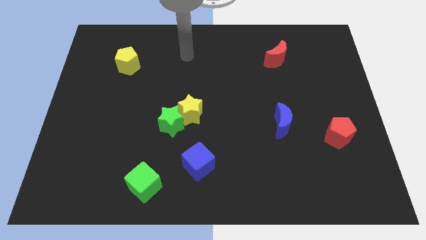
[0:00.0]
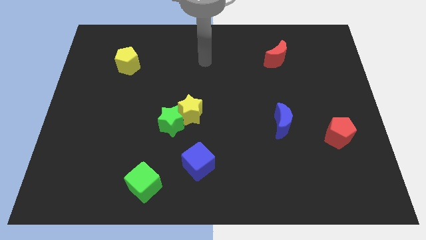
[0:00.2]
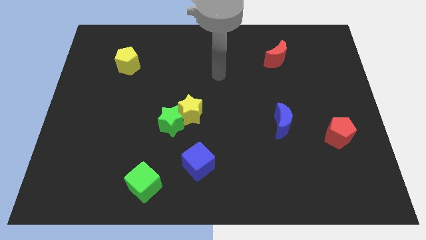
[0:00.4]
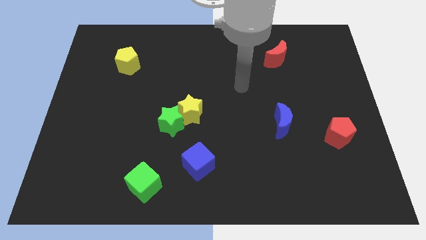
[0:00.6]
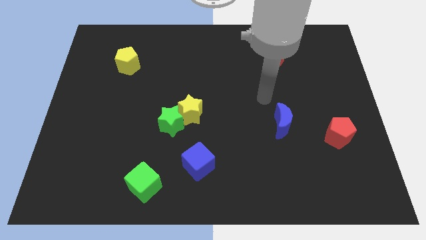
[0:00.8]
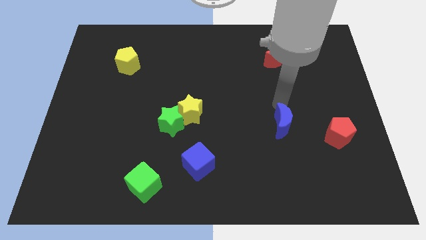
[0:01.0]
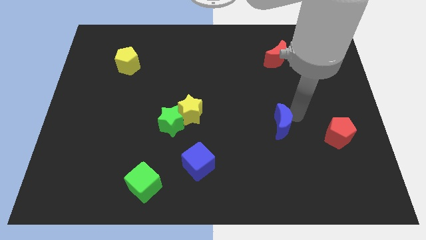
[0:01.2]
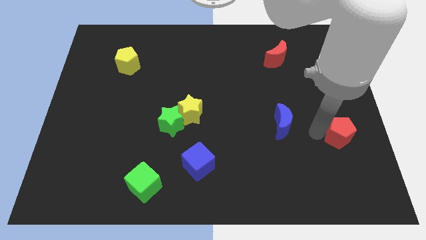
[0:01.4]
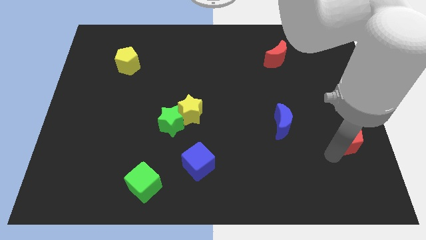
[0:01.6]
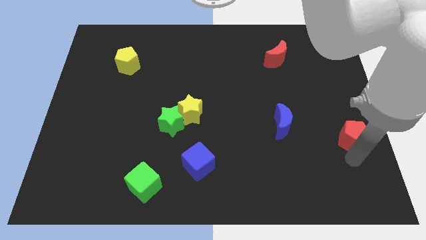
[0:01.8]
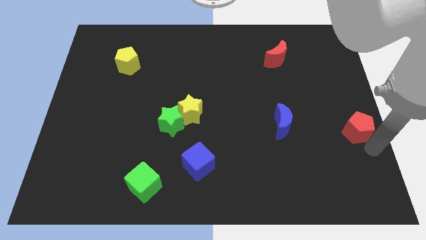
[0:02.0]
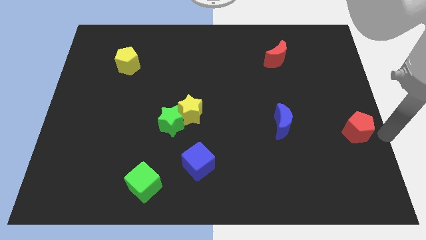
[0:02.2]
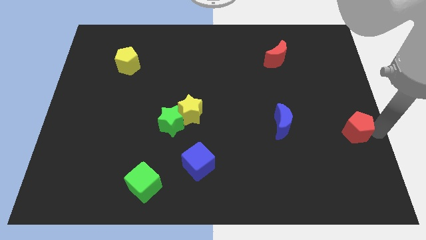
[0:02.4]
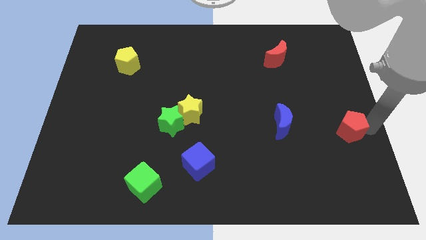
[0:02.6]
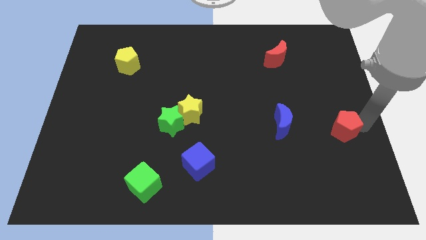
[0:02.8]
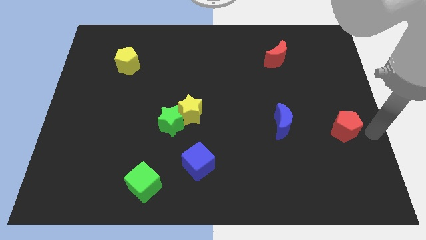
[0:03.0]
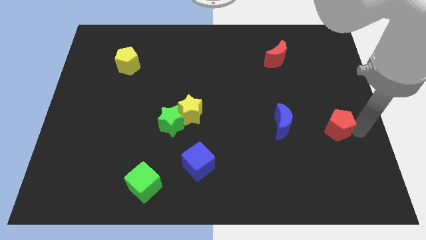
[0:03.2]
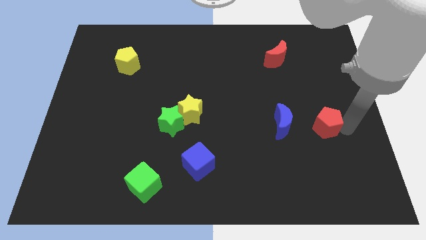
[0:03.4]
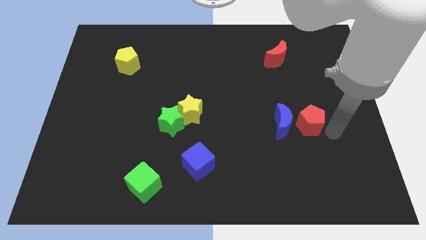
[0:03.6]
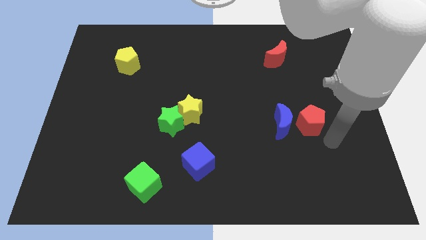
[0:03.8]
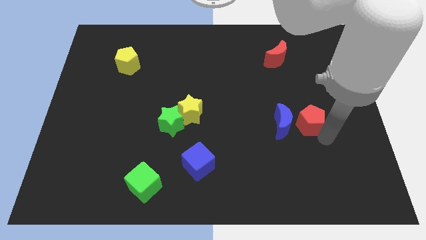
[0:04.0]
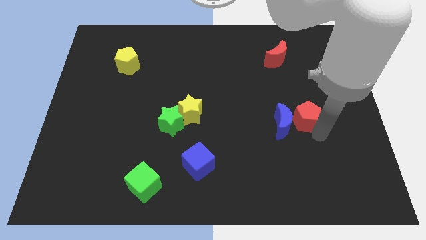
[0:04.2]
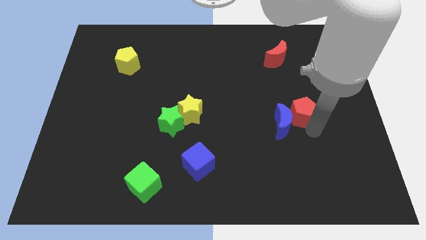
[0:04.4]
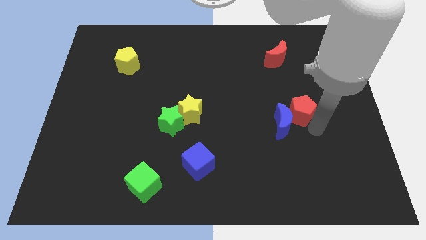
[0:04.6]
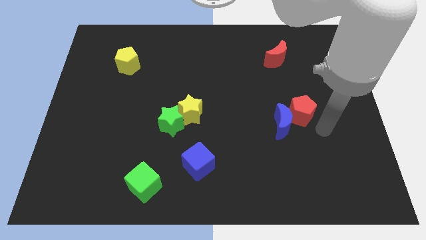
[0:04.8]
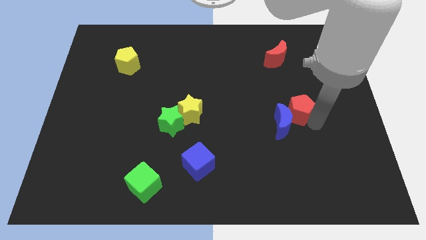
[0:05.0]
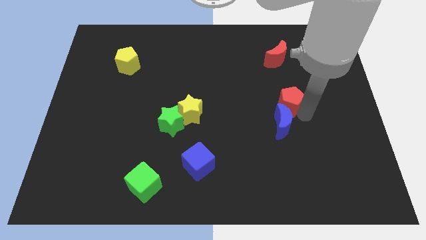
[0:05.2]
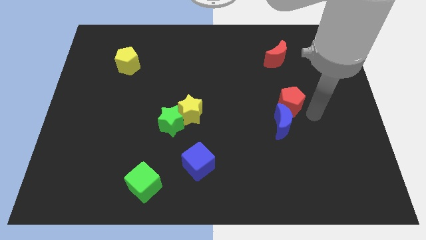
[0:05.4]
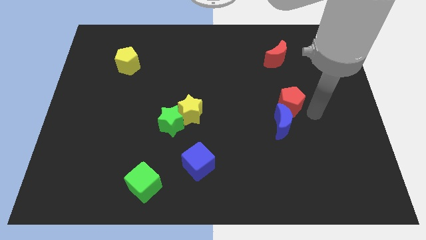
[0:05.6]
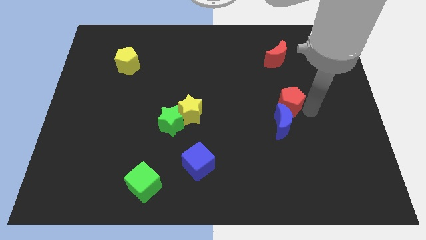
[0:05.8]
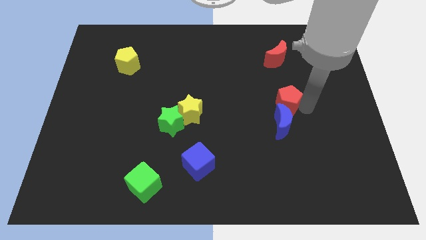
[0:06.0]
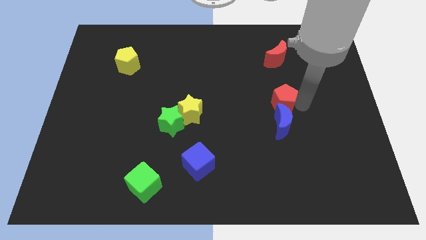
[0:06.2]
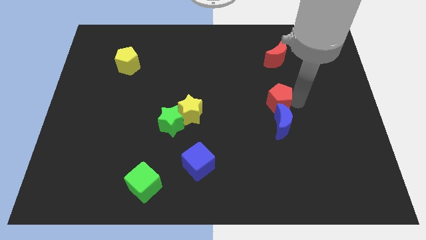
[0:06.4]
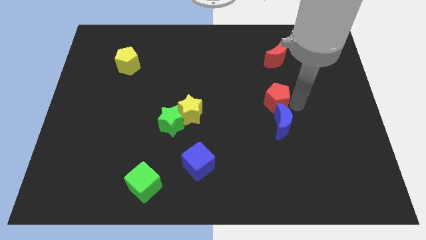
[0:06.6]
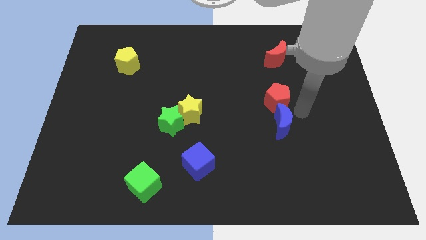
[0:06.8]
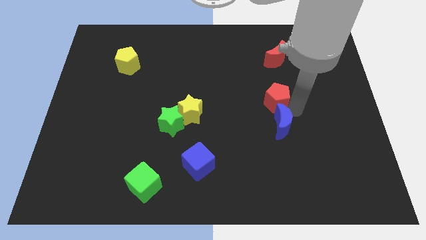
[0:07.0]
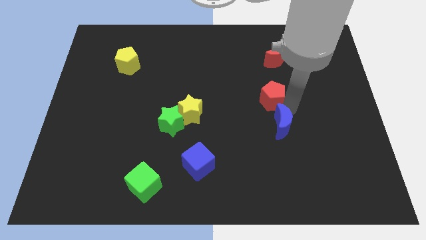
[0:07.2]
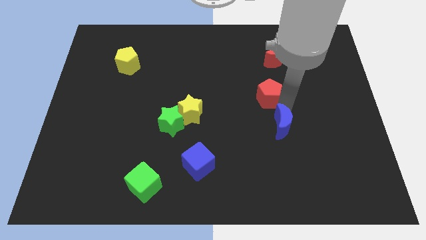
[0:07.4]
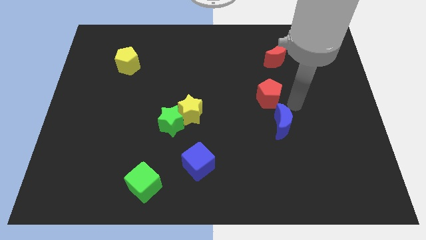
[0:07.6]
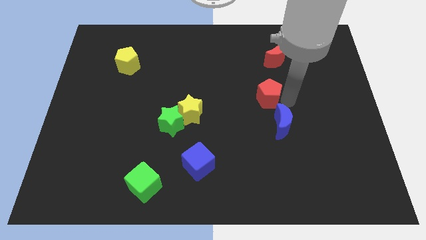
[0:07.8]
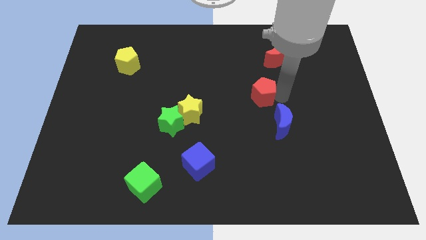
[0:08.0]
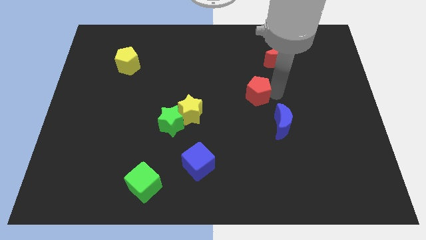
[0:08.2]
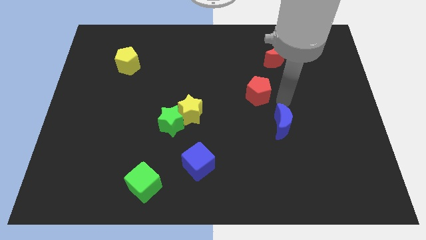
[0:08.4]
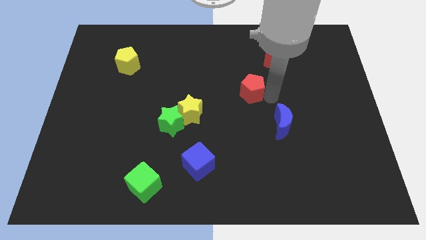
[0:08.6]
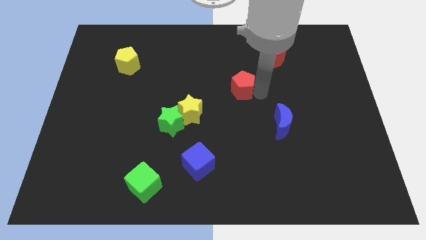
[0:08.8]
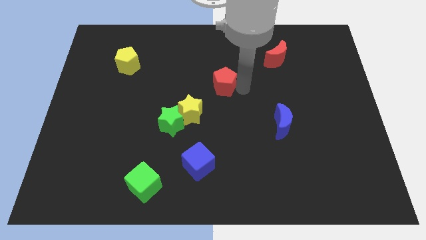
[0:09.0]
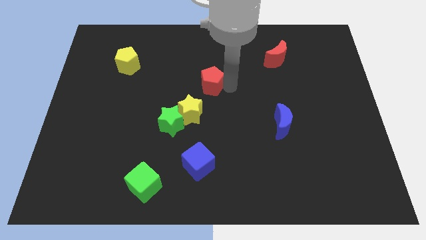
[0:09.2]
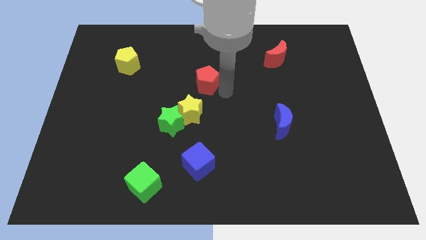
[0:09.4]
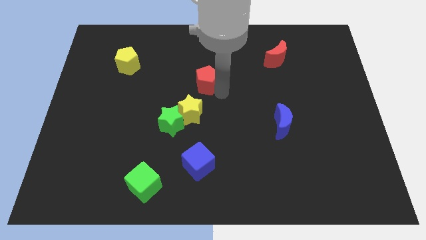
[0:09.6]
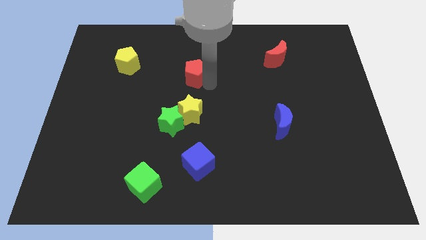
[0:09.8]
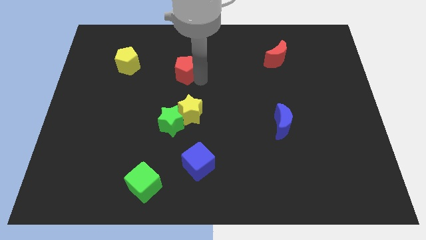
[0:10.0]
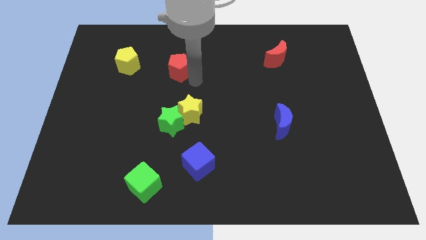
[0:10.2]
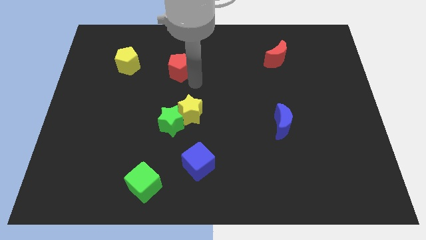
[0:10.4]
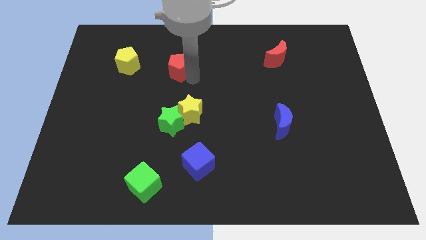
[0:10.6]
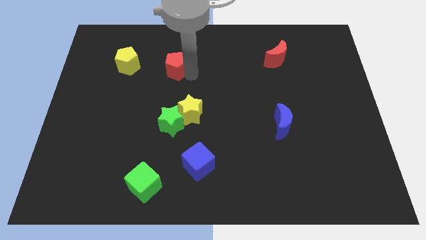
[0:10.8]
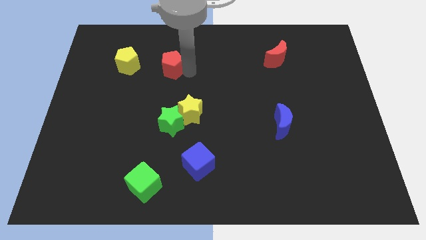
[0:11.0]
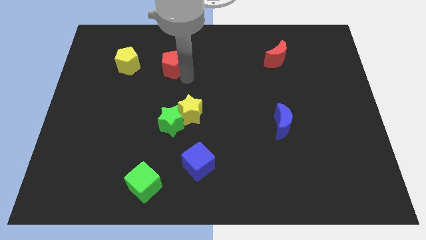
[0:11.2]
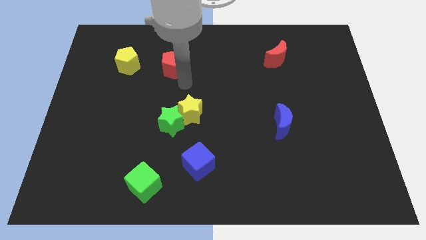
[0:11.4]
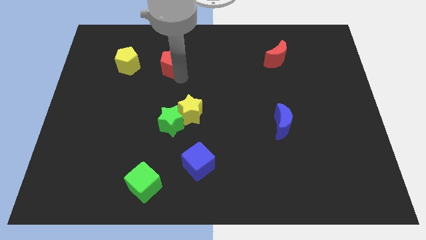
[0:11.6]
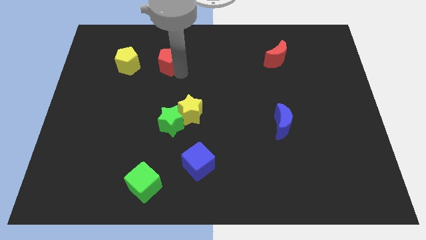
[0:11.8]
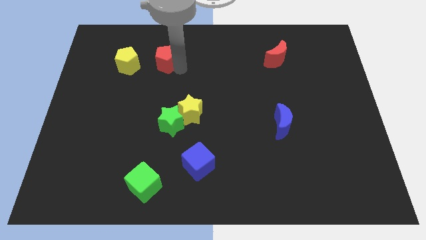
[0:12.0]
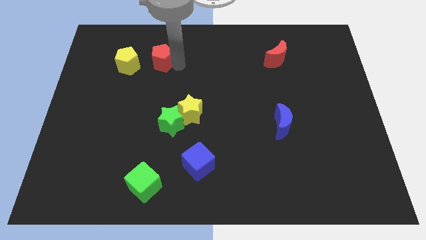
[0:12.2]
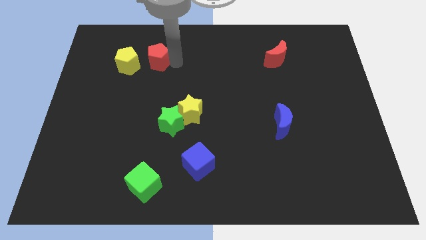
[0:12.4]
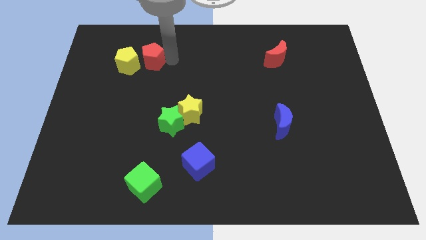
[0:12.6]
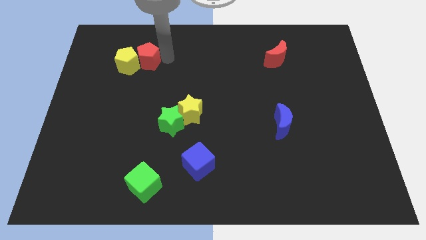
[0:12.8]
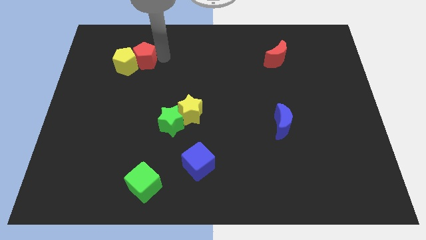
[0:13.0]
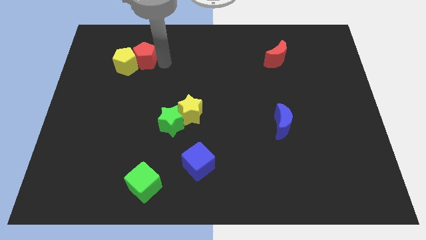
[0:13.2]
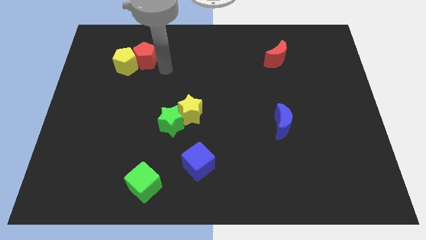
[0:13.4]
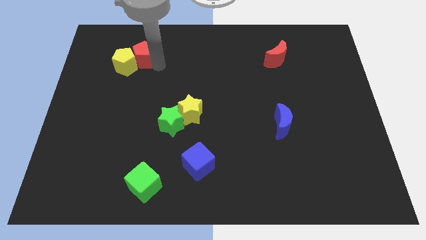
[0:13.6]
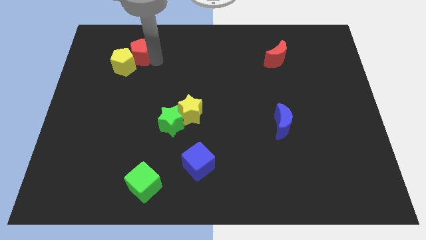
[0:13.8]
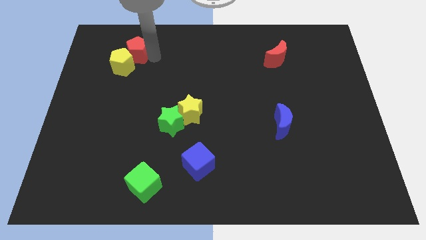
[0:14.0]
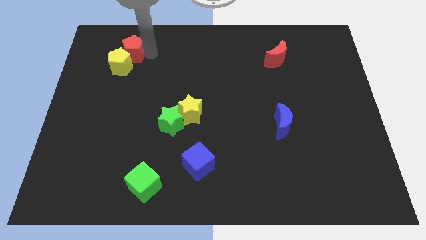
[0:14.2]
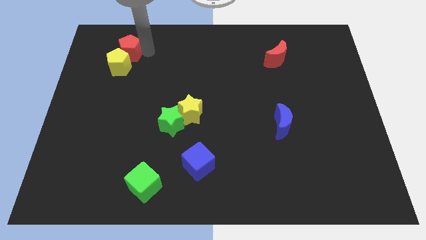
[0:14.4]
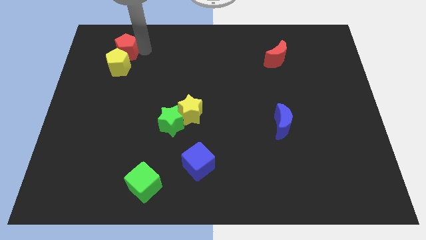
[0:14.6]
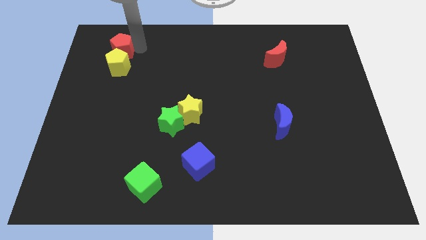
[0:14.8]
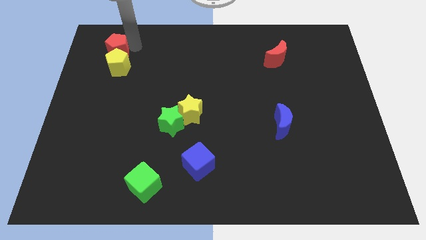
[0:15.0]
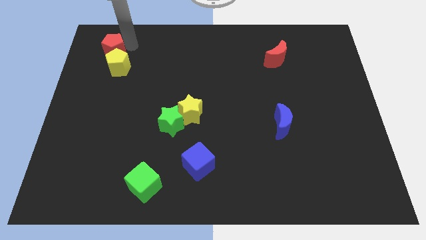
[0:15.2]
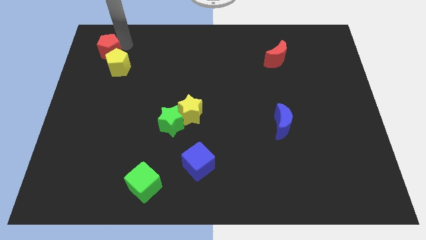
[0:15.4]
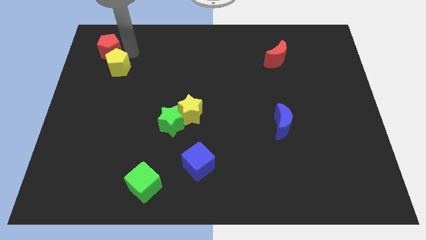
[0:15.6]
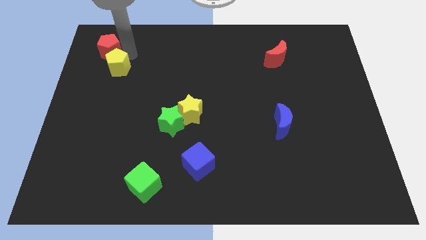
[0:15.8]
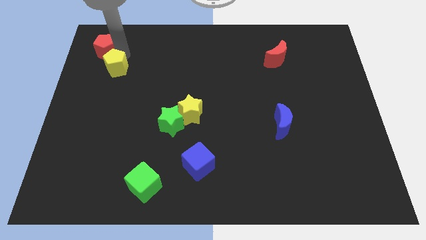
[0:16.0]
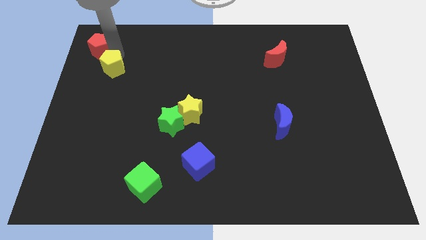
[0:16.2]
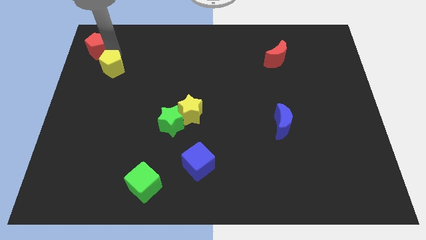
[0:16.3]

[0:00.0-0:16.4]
move the red pentagon to the upper left corner
